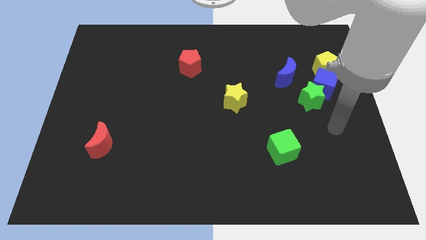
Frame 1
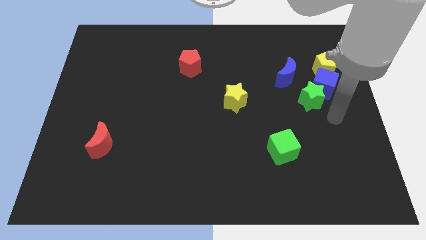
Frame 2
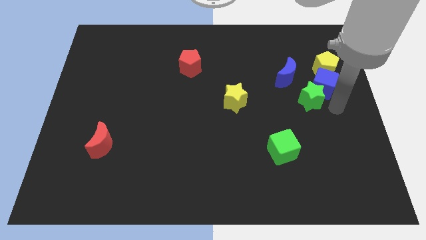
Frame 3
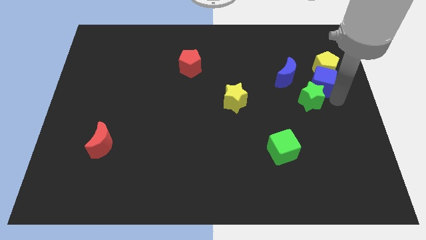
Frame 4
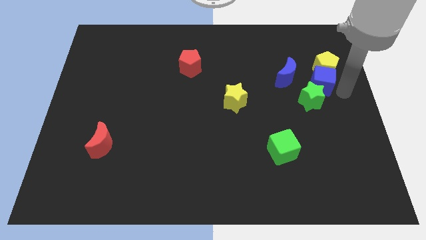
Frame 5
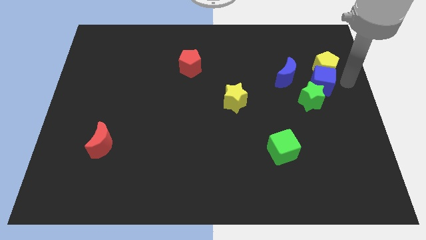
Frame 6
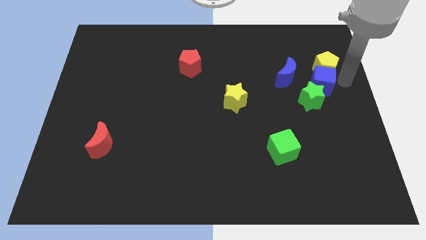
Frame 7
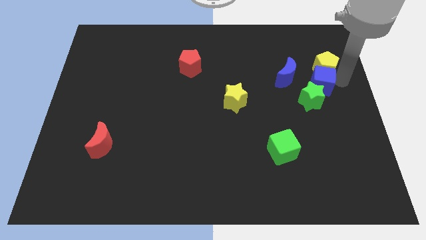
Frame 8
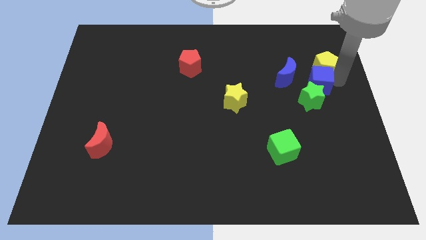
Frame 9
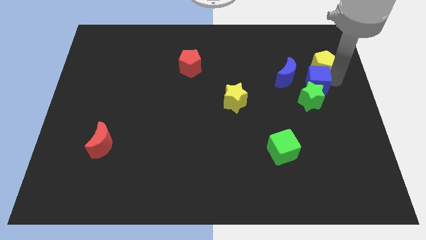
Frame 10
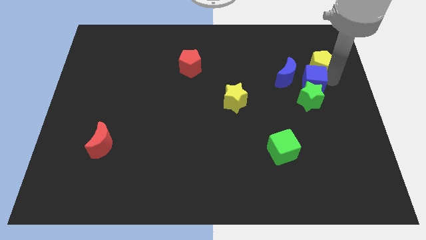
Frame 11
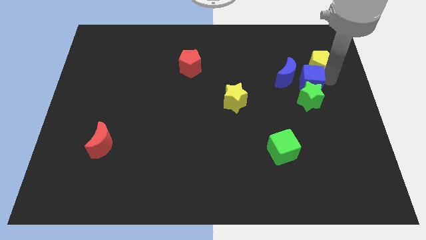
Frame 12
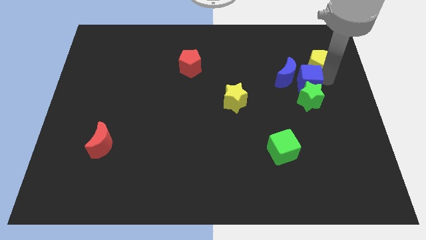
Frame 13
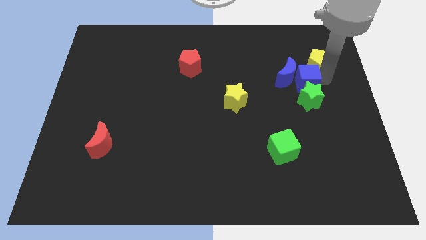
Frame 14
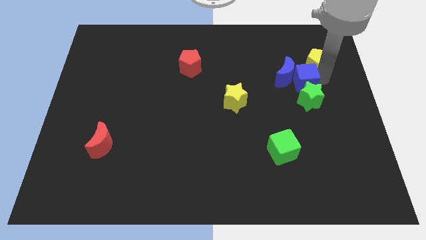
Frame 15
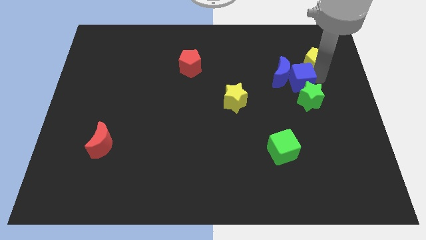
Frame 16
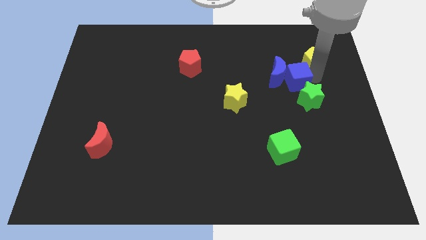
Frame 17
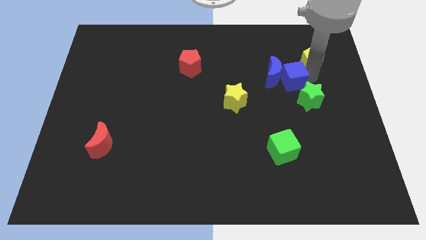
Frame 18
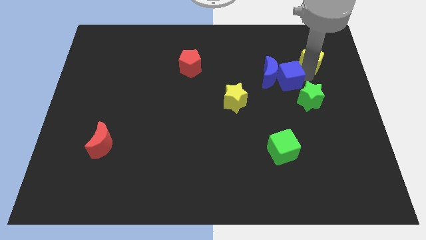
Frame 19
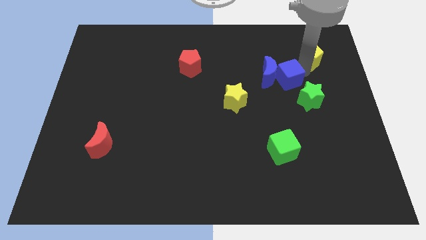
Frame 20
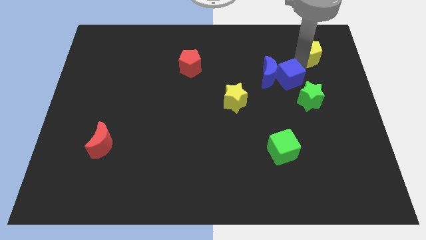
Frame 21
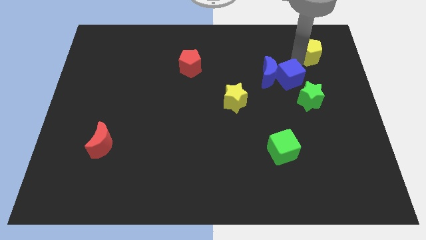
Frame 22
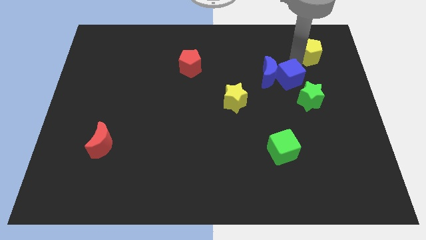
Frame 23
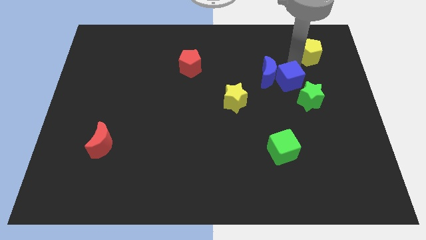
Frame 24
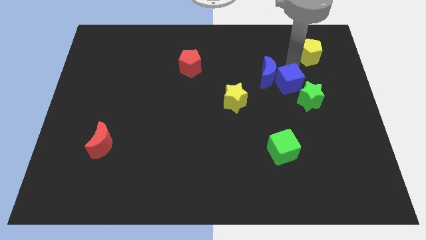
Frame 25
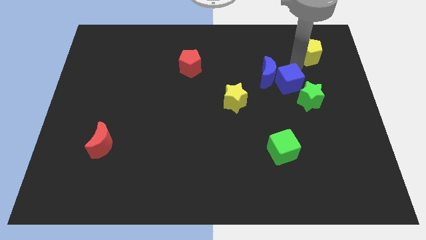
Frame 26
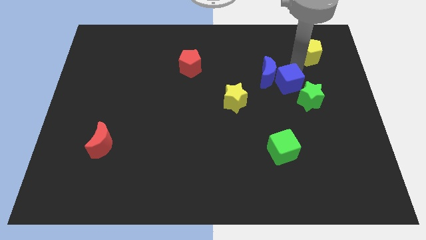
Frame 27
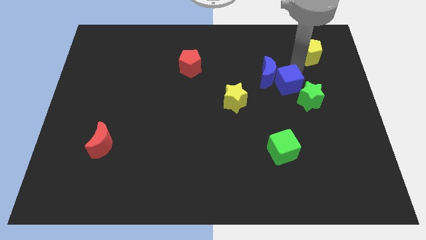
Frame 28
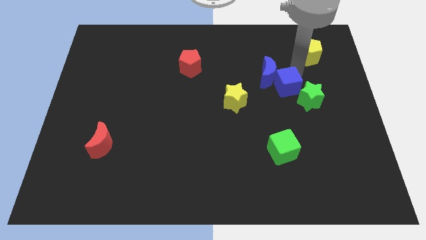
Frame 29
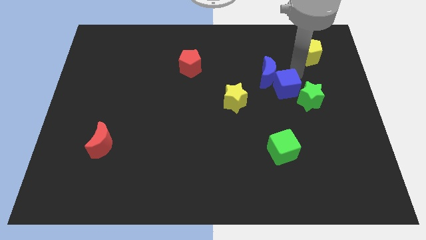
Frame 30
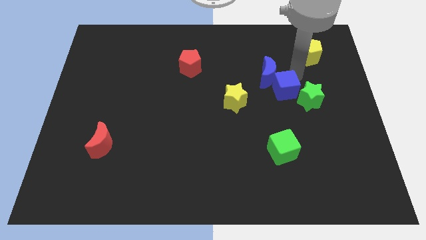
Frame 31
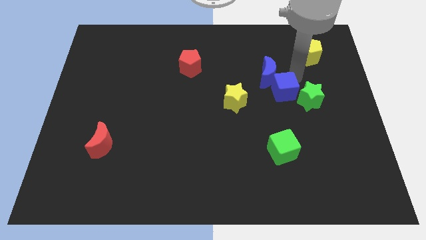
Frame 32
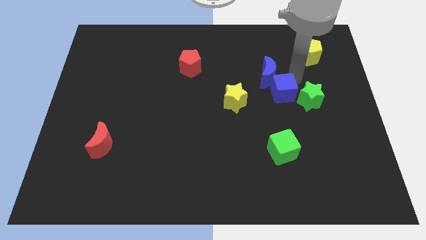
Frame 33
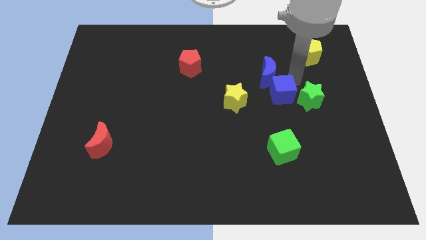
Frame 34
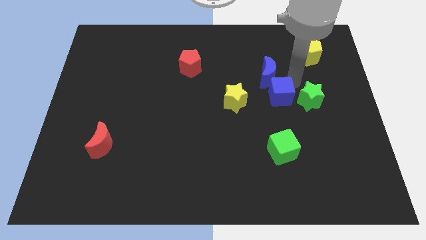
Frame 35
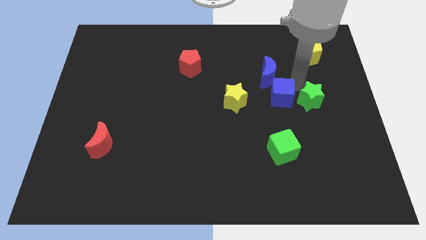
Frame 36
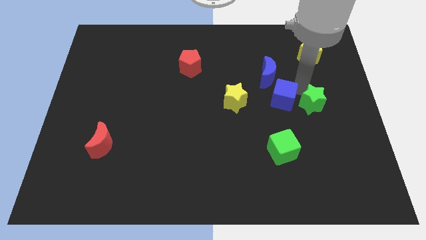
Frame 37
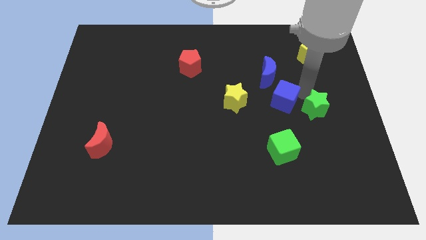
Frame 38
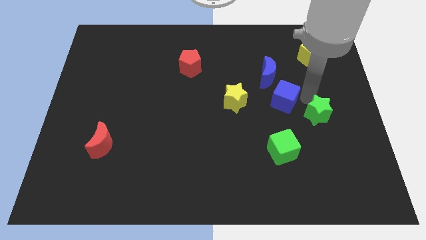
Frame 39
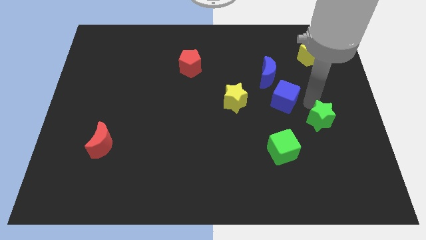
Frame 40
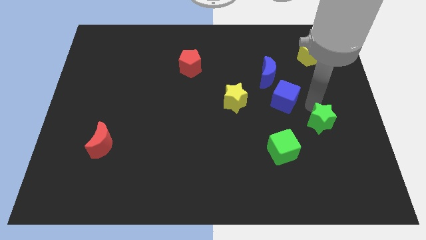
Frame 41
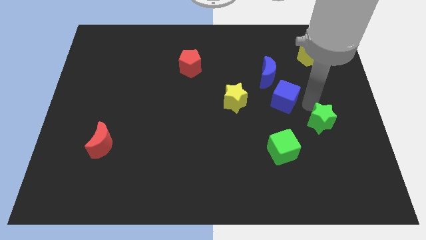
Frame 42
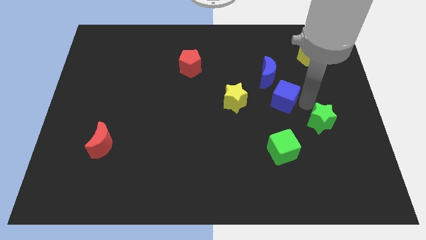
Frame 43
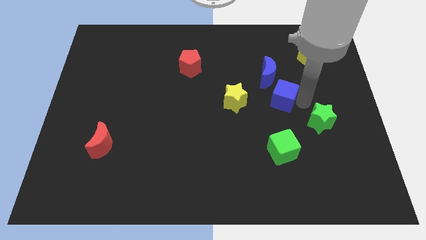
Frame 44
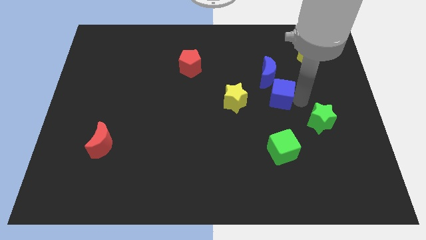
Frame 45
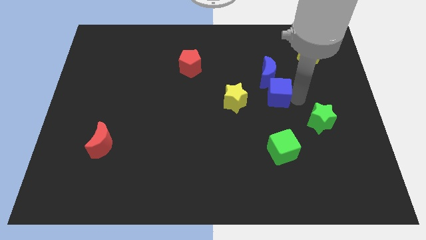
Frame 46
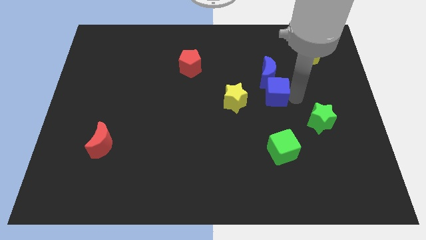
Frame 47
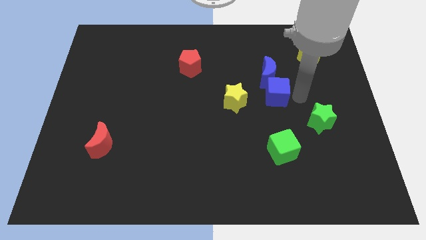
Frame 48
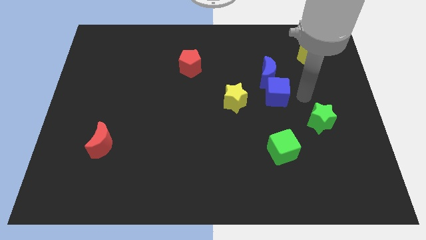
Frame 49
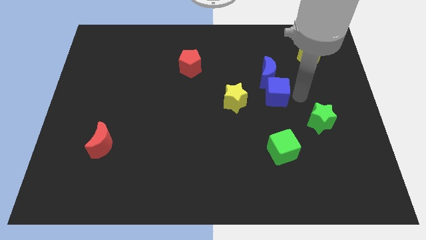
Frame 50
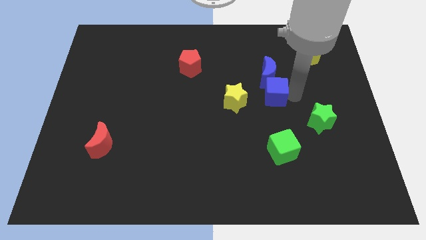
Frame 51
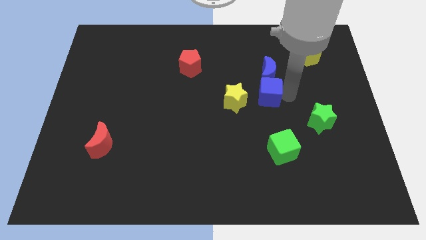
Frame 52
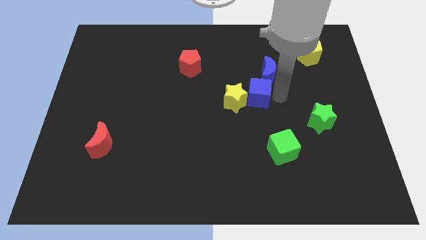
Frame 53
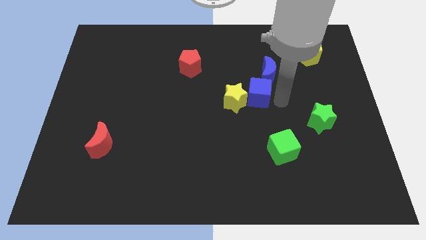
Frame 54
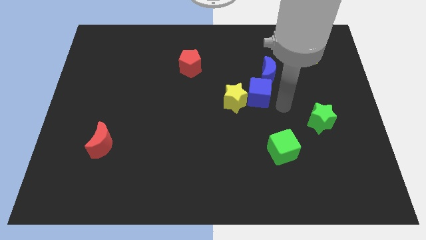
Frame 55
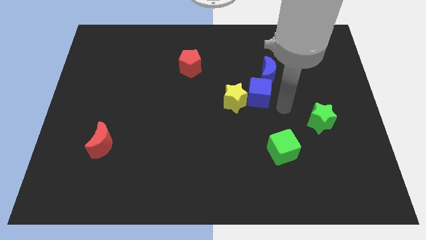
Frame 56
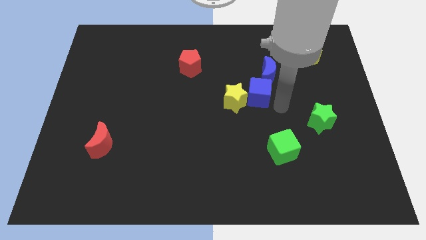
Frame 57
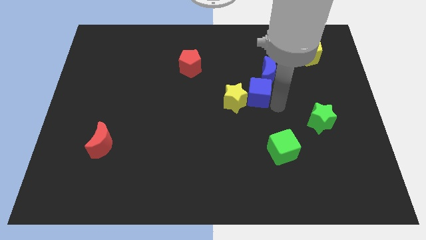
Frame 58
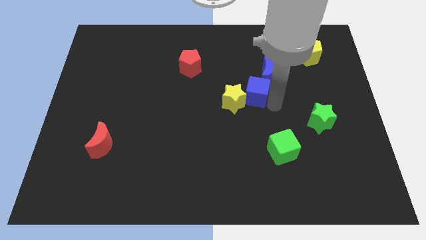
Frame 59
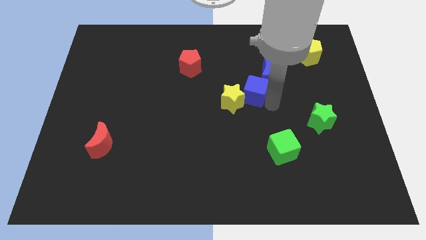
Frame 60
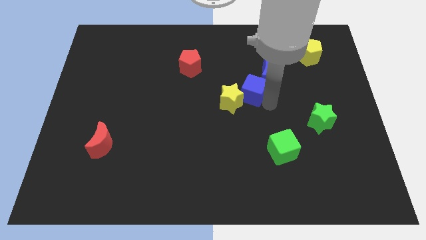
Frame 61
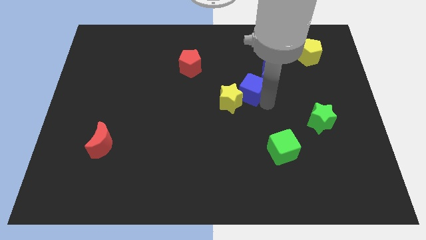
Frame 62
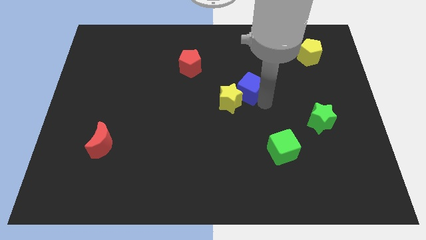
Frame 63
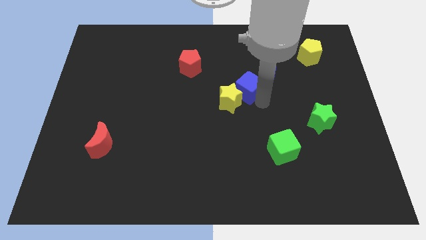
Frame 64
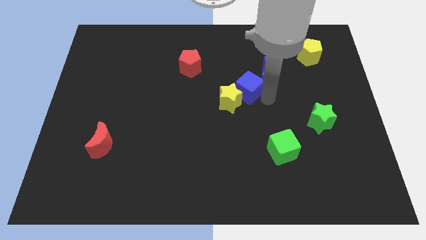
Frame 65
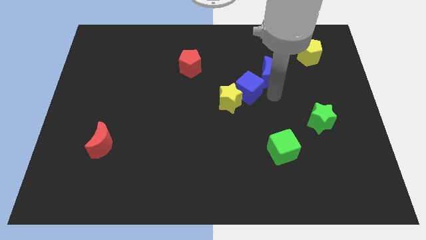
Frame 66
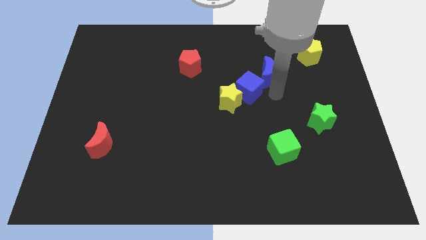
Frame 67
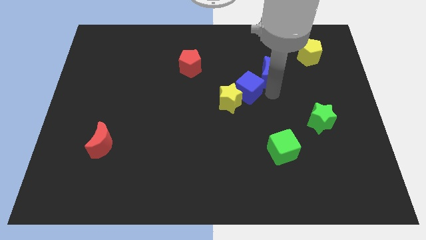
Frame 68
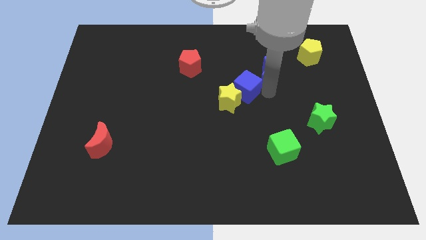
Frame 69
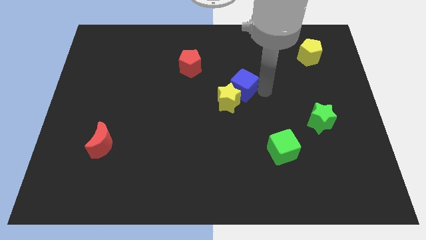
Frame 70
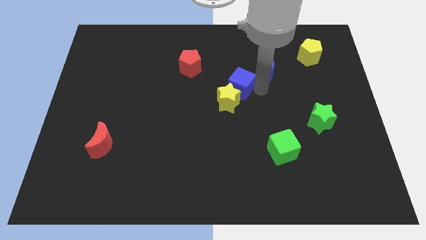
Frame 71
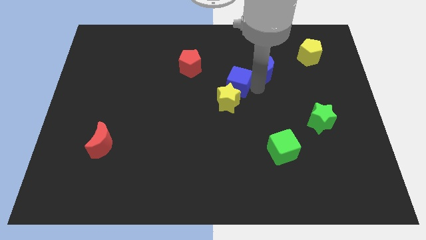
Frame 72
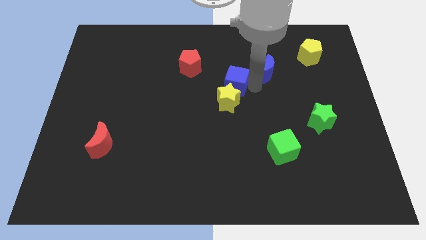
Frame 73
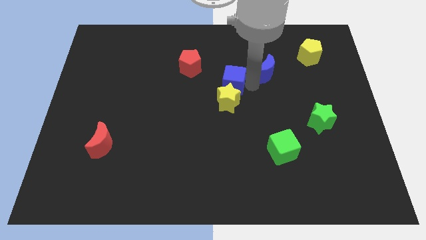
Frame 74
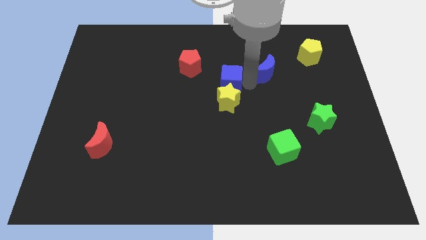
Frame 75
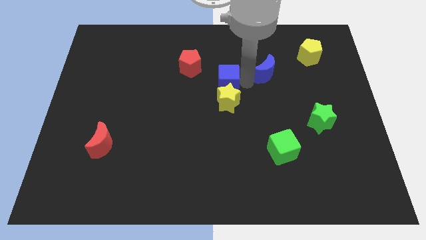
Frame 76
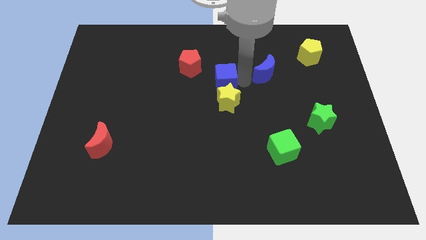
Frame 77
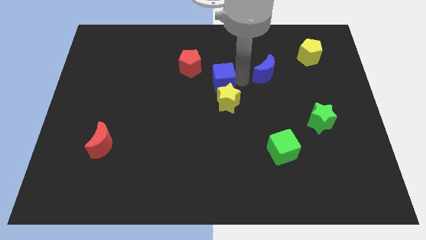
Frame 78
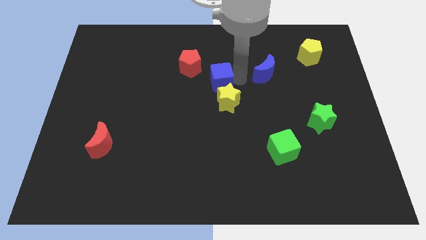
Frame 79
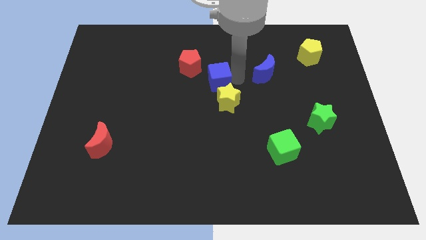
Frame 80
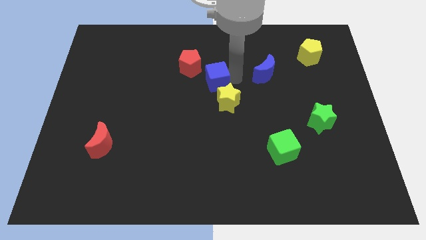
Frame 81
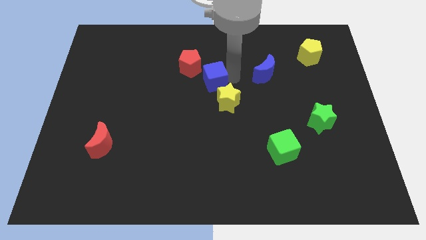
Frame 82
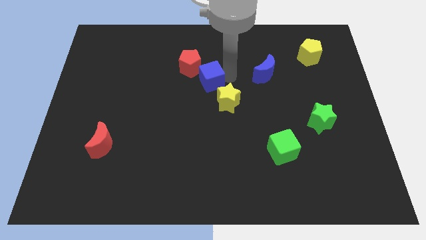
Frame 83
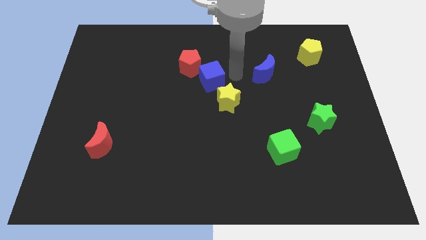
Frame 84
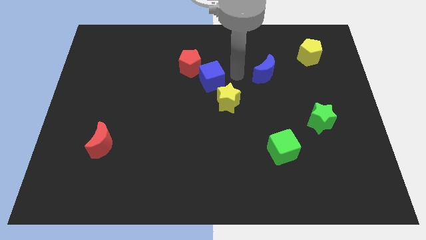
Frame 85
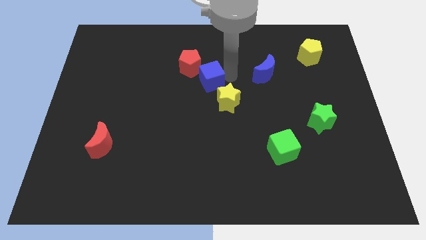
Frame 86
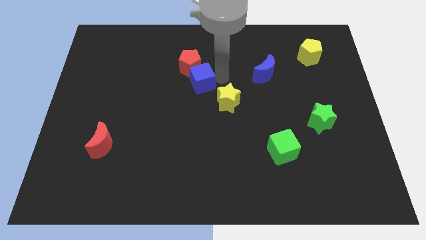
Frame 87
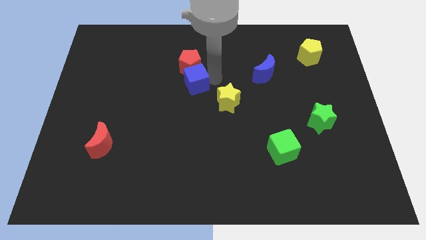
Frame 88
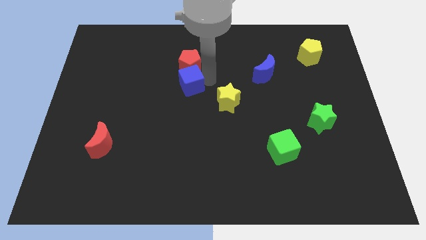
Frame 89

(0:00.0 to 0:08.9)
slide the blue cube diagonally down and to the left of the red pentagon
